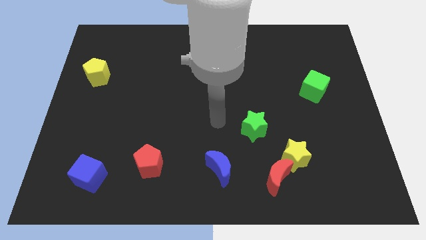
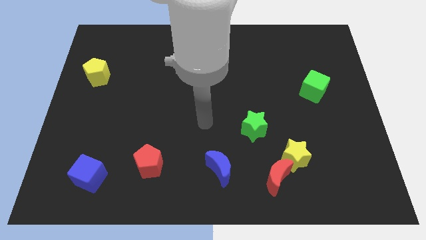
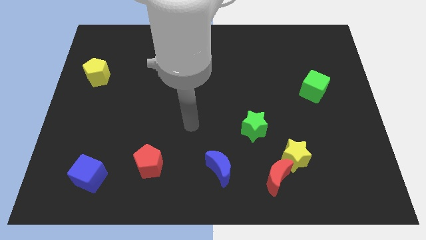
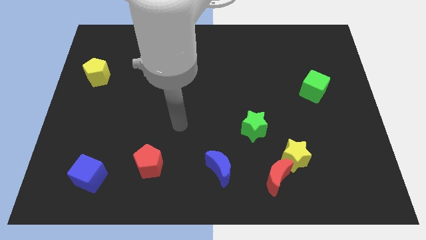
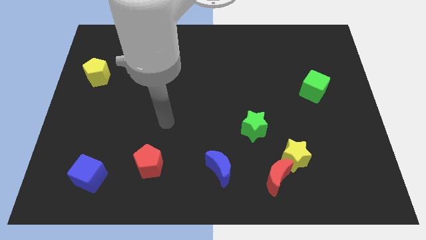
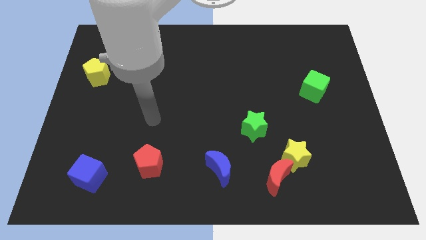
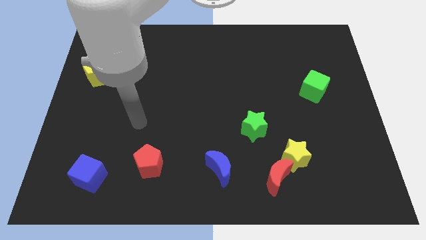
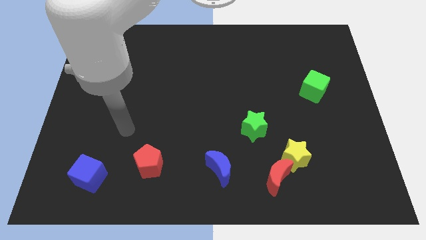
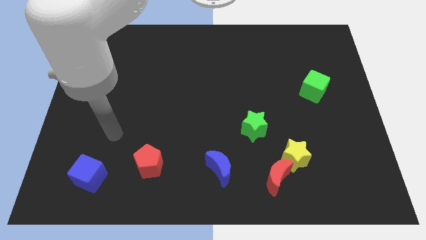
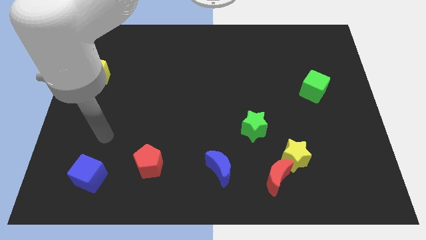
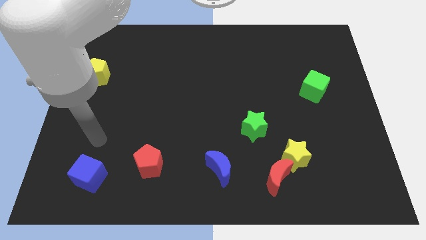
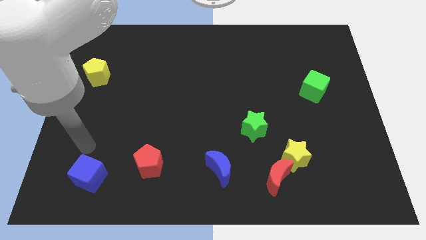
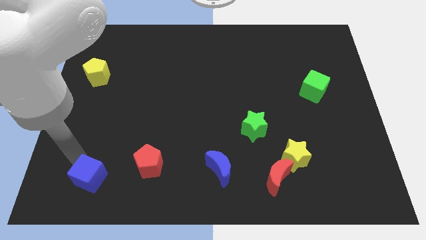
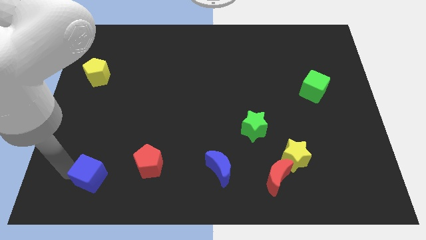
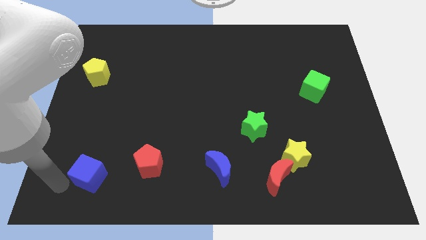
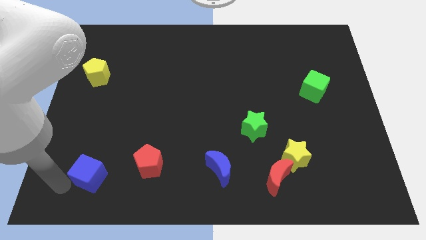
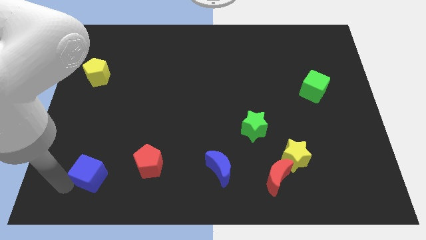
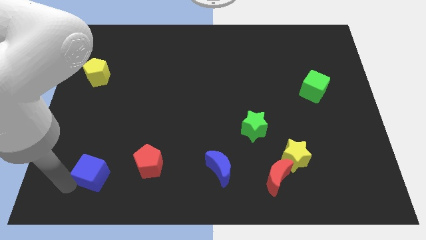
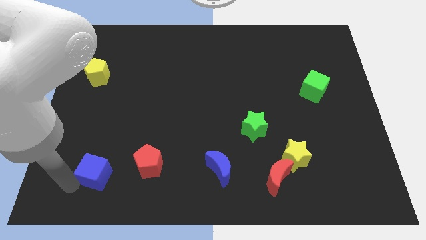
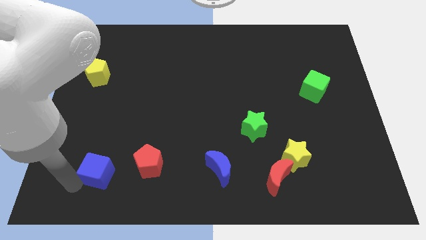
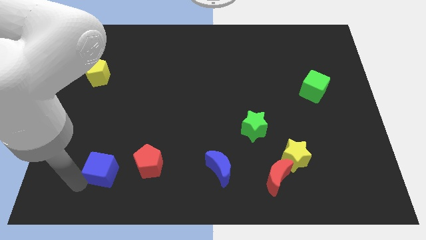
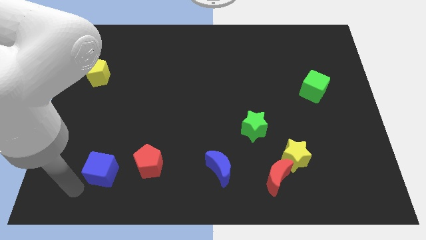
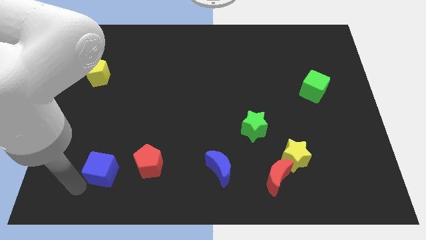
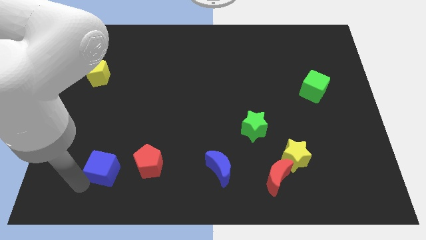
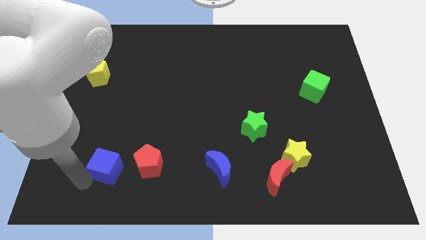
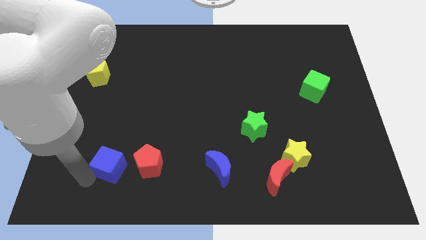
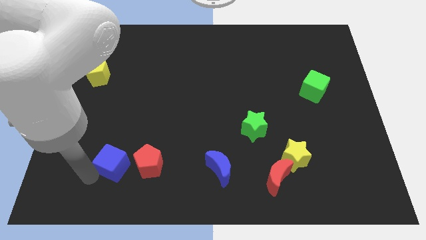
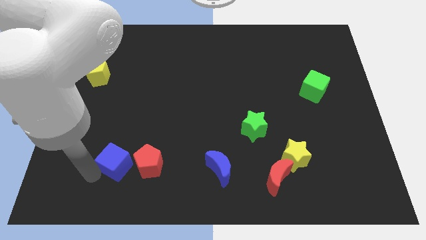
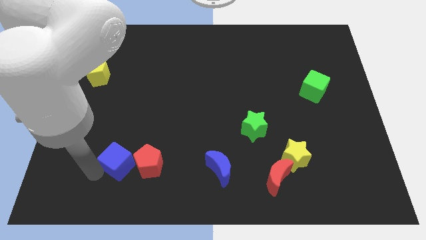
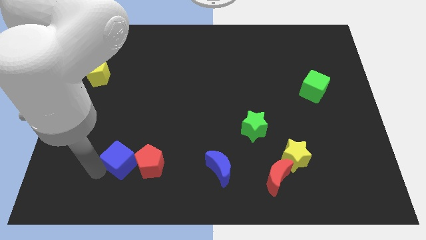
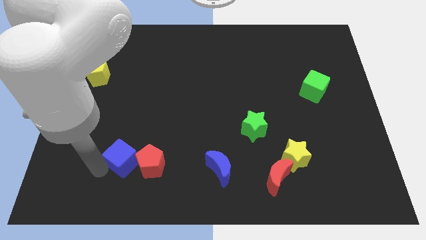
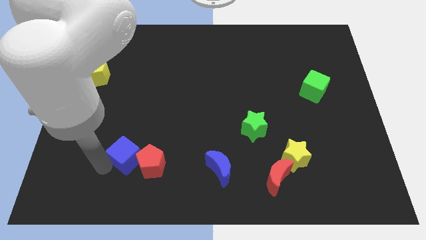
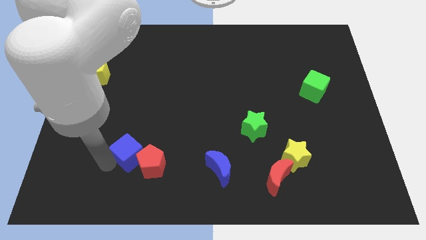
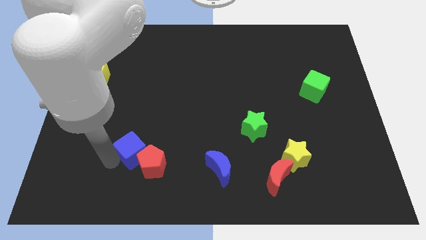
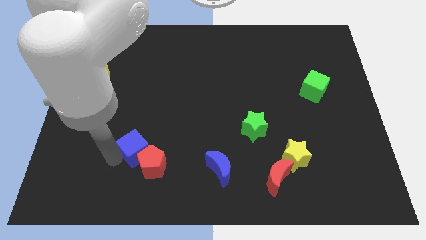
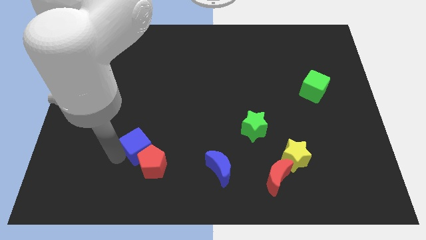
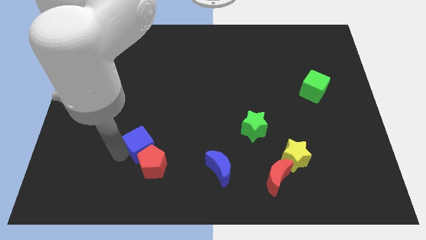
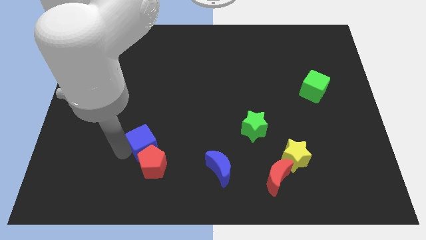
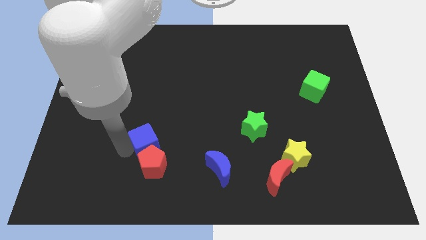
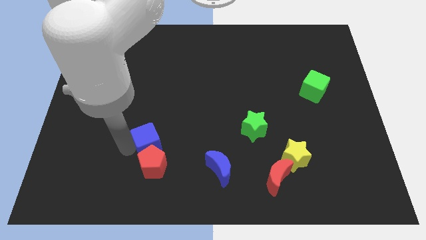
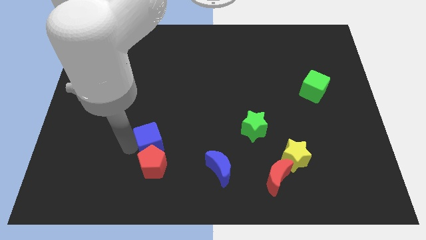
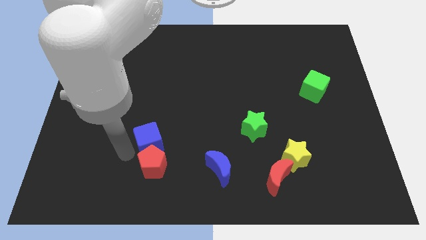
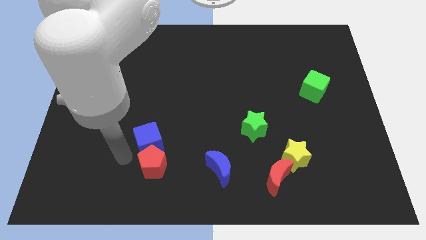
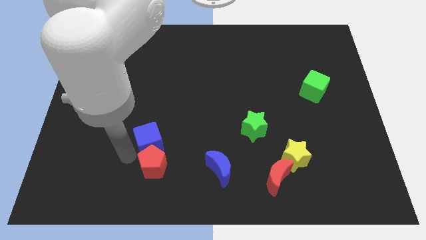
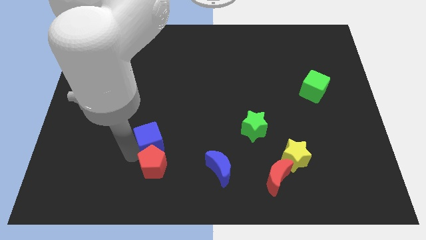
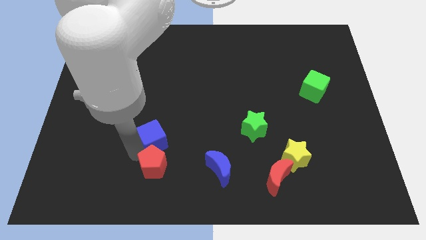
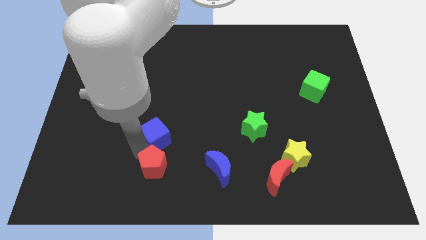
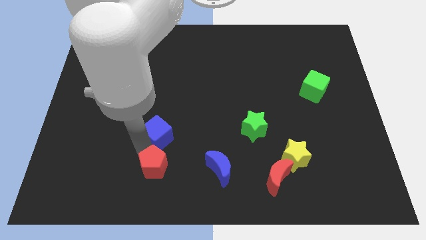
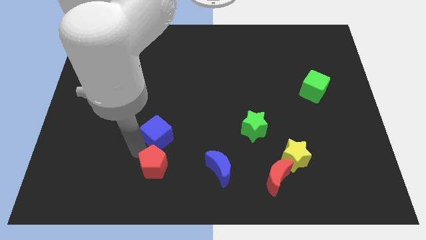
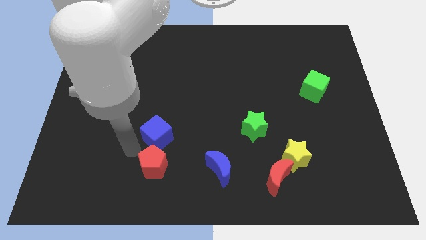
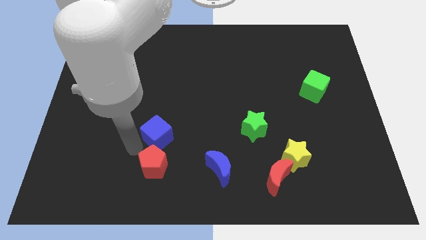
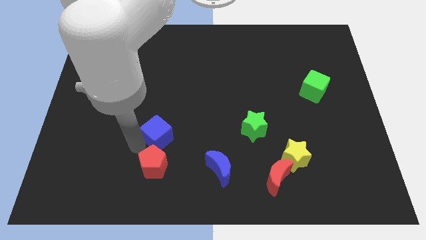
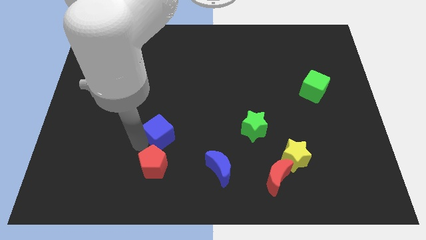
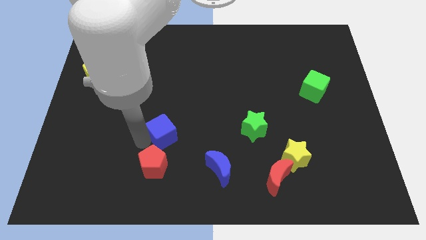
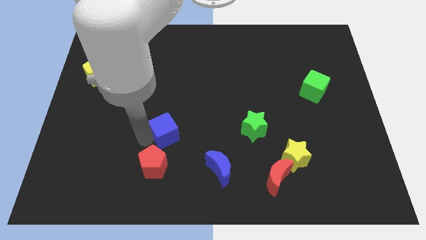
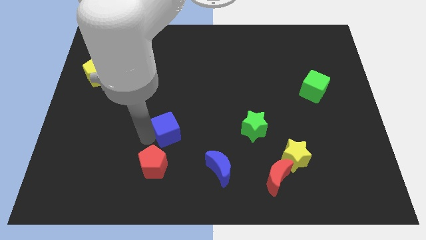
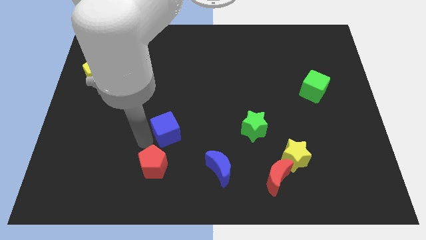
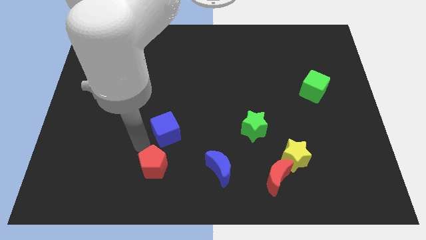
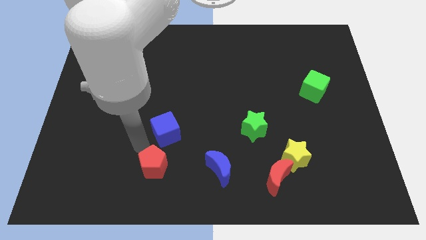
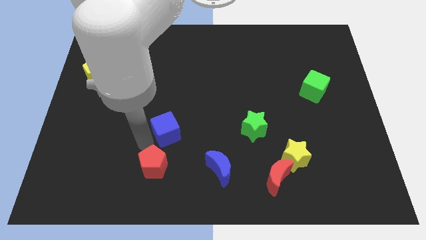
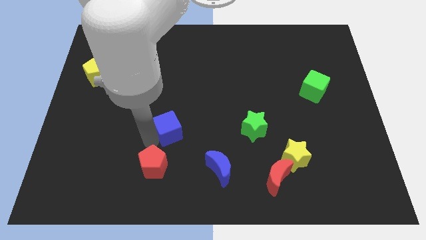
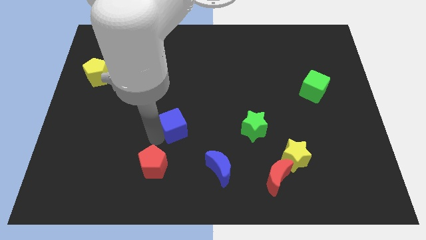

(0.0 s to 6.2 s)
move the blue cube to the center of the board

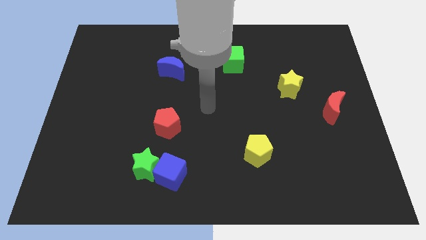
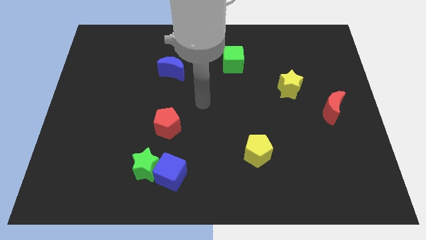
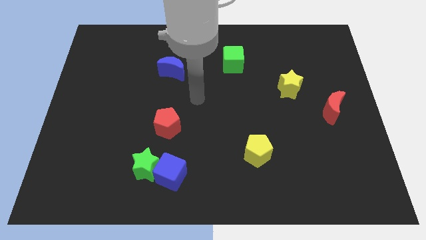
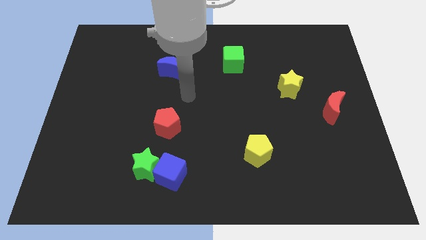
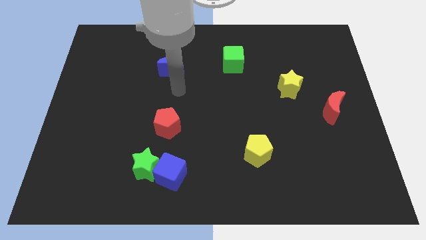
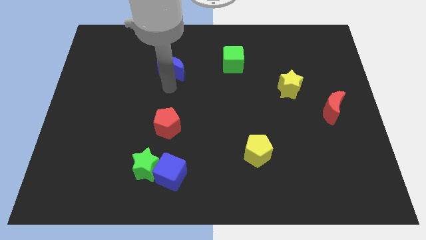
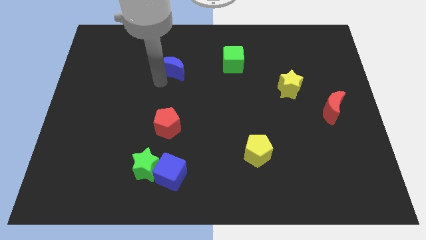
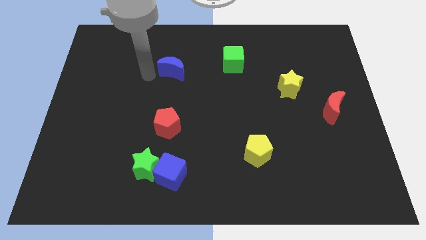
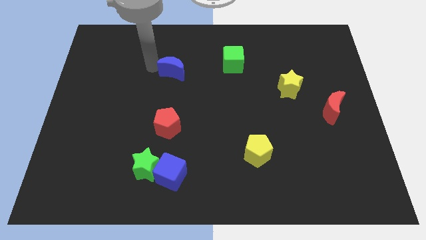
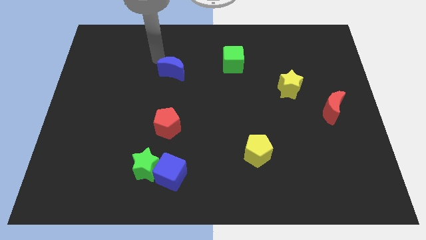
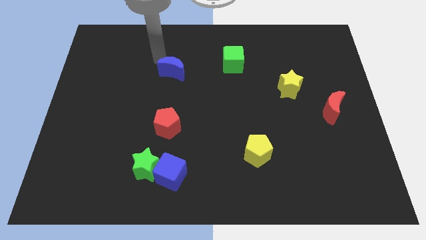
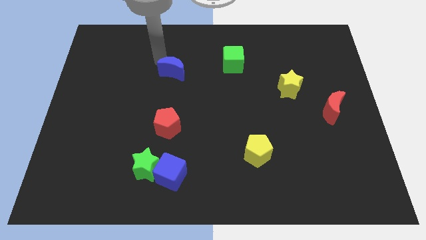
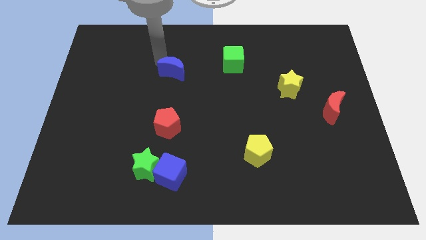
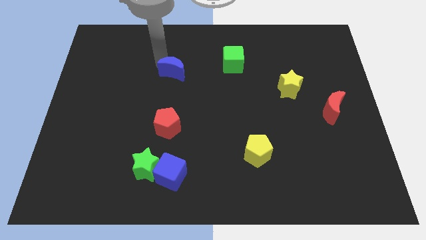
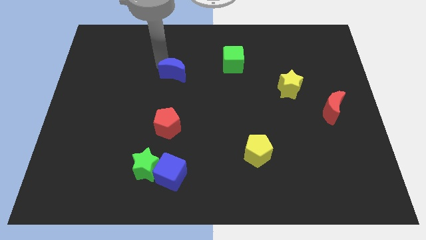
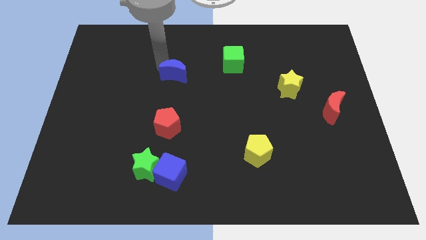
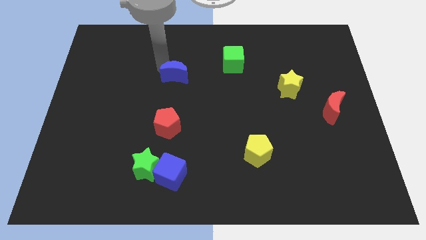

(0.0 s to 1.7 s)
slide the blue moon to the middle of the board
